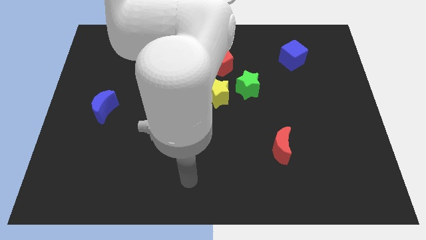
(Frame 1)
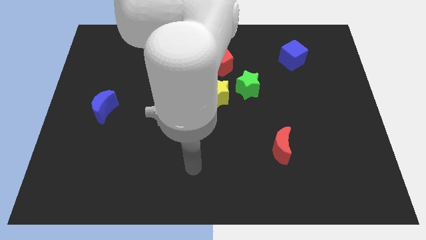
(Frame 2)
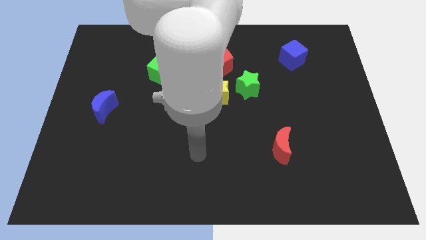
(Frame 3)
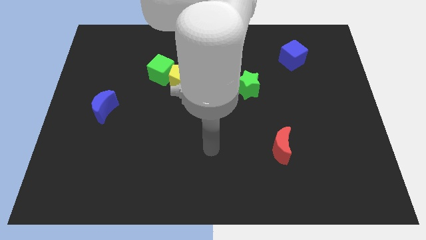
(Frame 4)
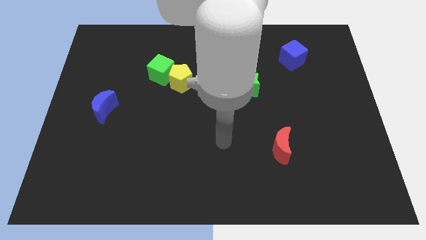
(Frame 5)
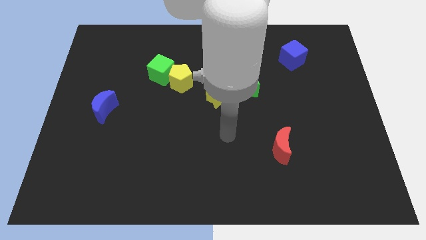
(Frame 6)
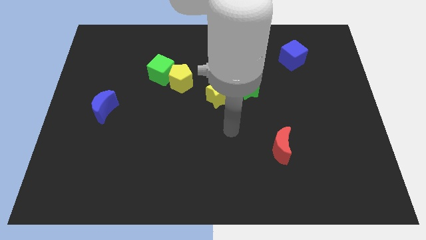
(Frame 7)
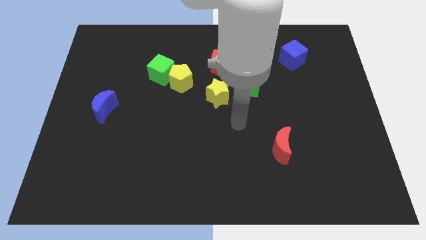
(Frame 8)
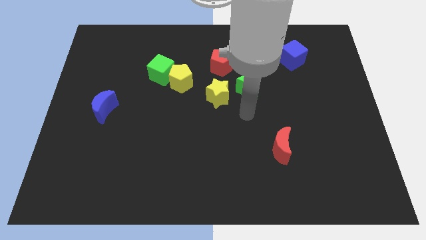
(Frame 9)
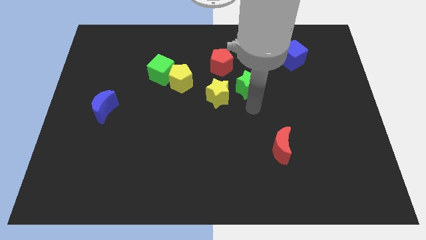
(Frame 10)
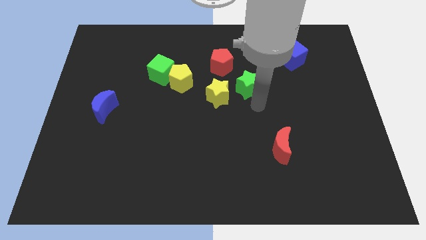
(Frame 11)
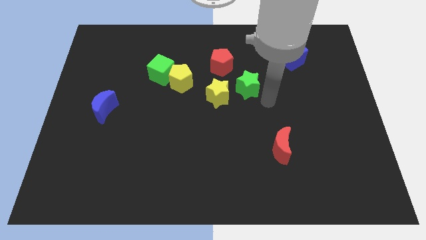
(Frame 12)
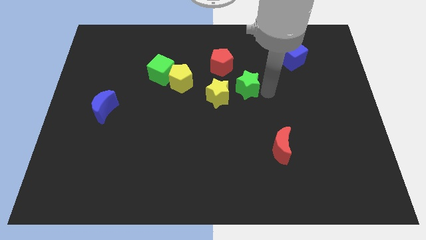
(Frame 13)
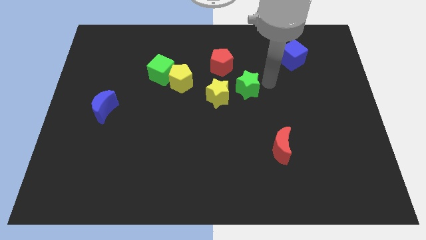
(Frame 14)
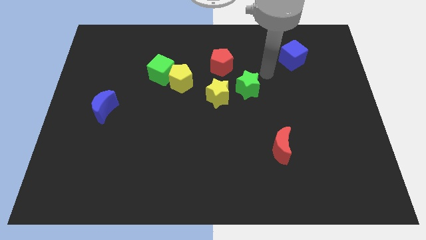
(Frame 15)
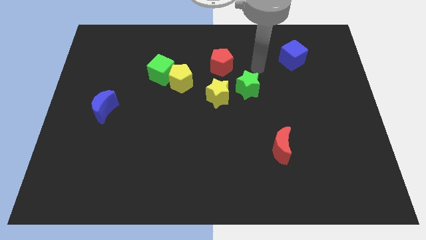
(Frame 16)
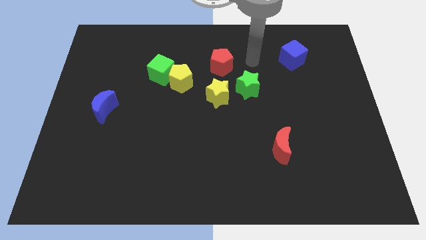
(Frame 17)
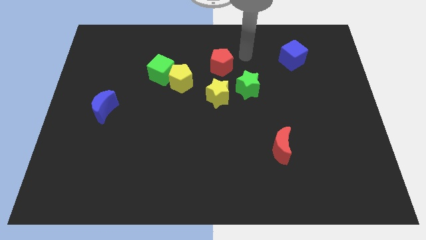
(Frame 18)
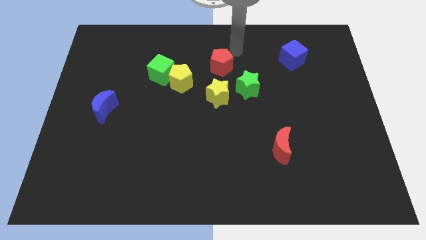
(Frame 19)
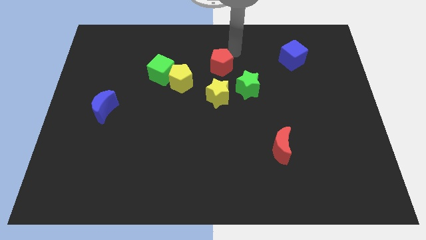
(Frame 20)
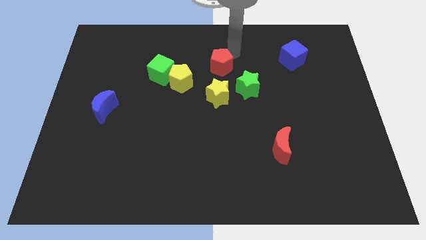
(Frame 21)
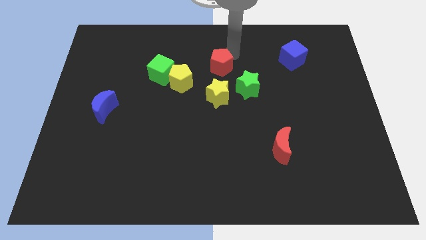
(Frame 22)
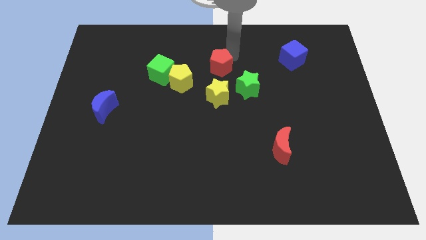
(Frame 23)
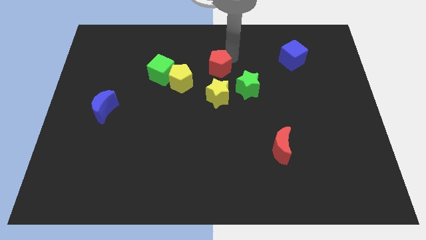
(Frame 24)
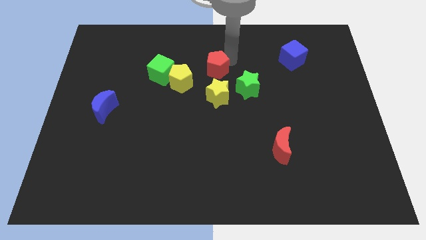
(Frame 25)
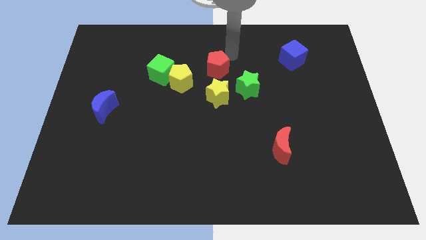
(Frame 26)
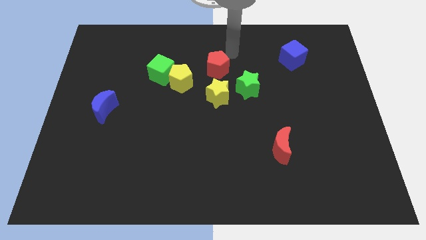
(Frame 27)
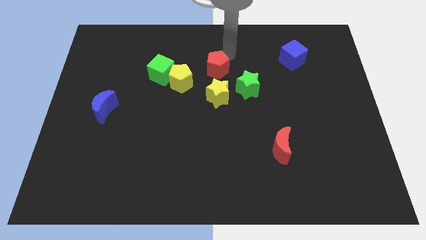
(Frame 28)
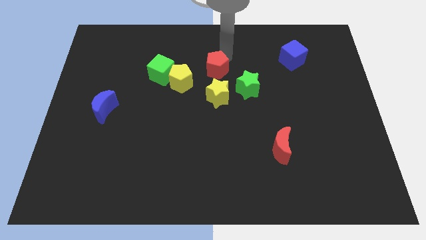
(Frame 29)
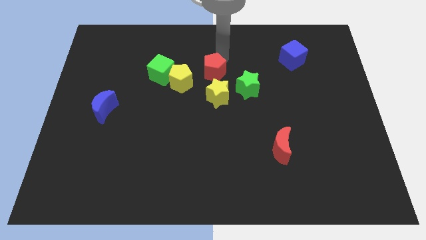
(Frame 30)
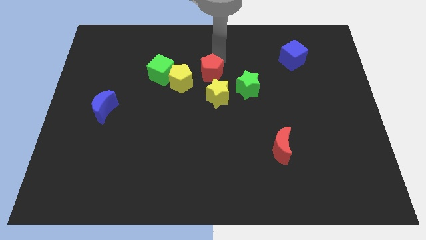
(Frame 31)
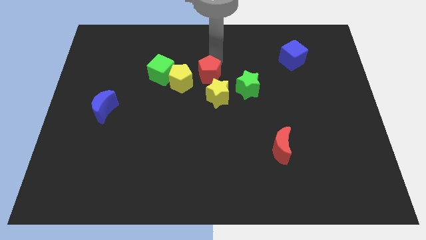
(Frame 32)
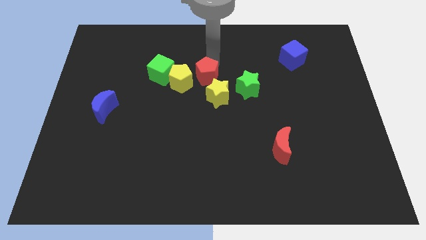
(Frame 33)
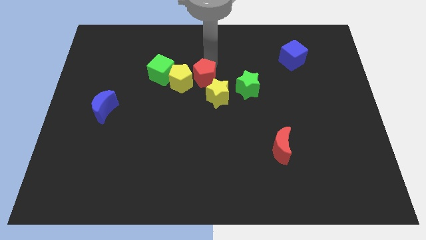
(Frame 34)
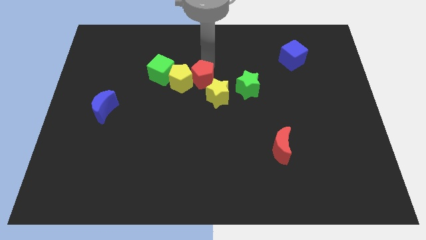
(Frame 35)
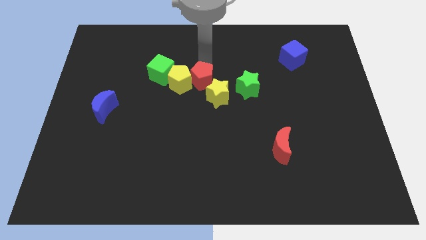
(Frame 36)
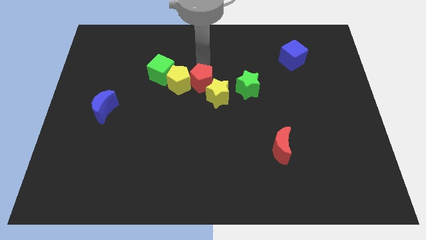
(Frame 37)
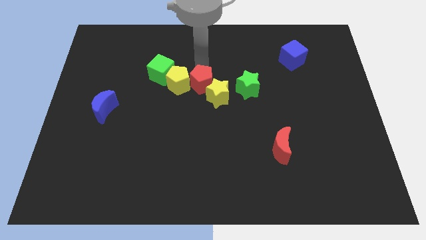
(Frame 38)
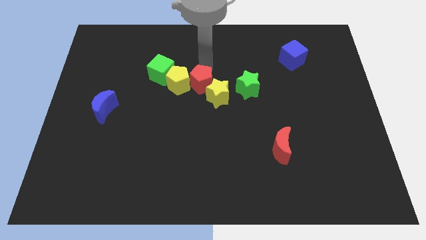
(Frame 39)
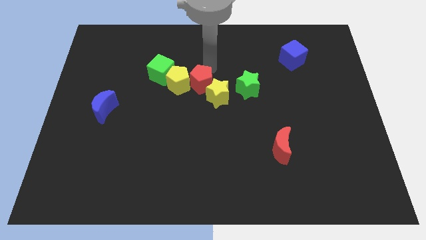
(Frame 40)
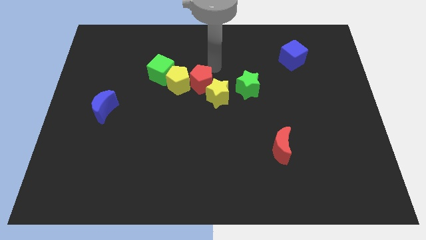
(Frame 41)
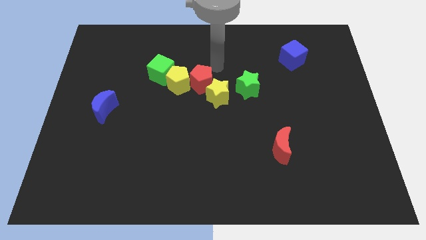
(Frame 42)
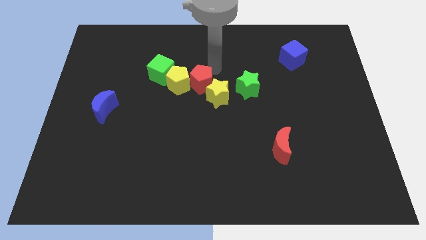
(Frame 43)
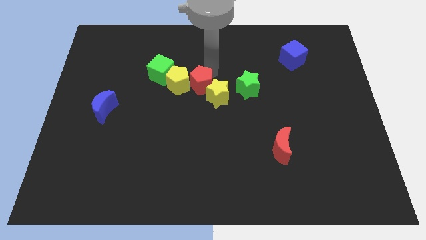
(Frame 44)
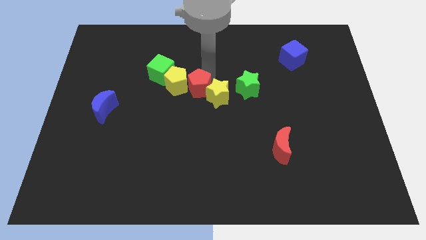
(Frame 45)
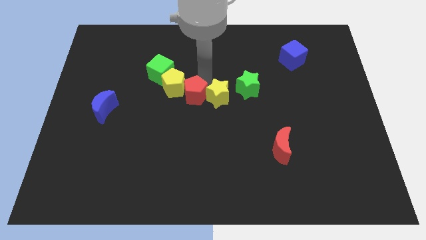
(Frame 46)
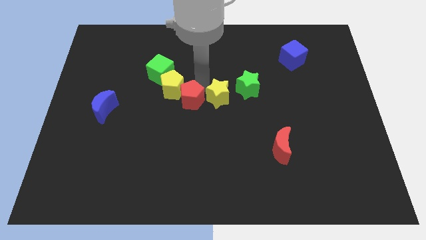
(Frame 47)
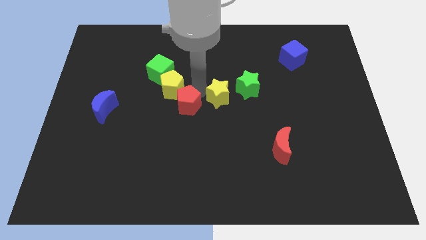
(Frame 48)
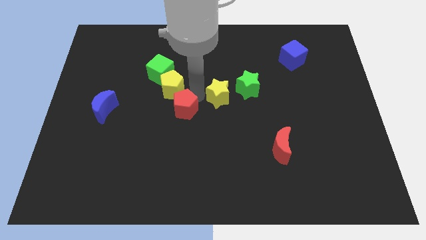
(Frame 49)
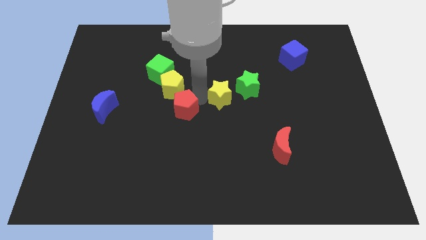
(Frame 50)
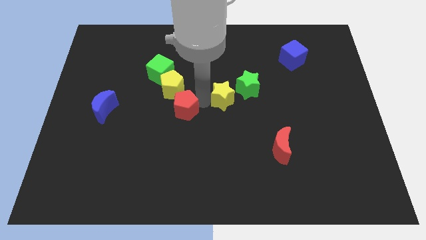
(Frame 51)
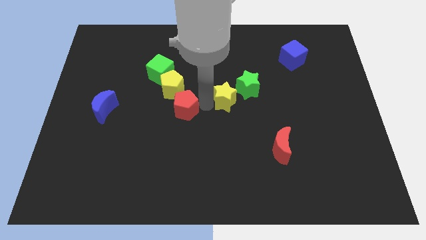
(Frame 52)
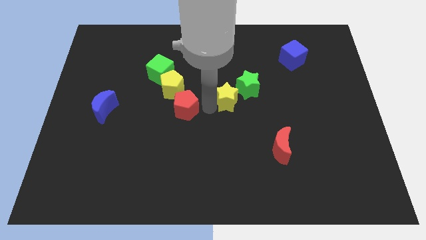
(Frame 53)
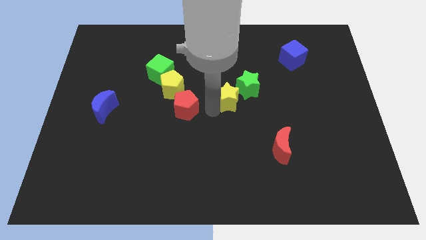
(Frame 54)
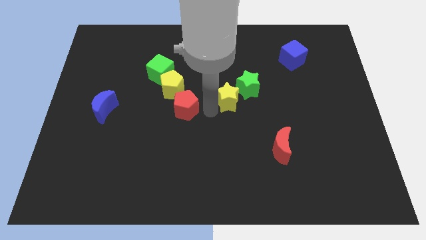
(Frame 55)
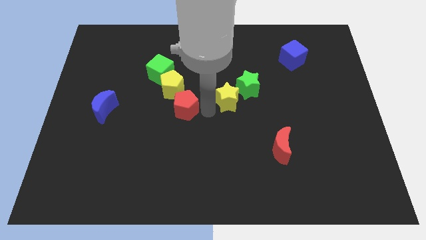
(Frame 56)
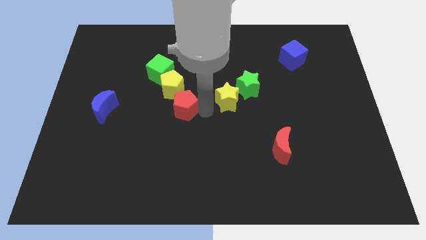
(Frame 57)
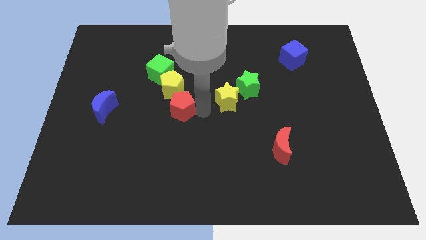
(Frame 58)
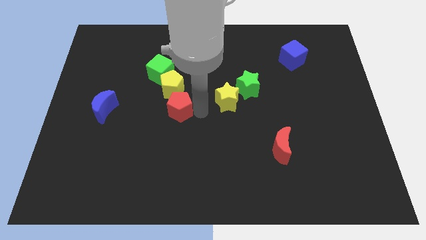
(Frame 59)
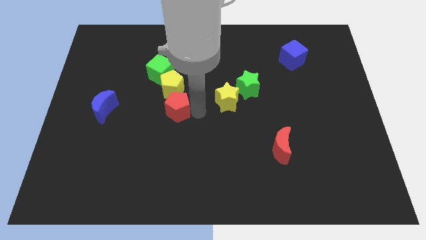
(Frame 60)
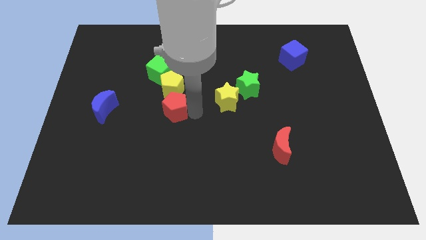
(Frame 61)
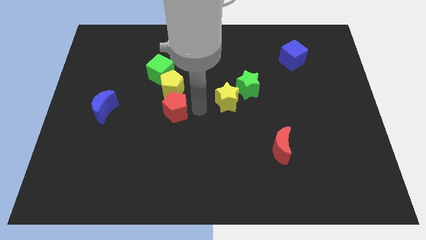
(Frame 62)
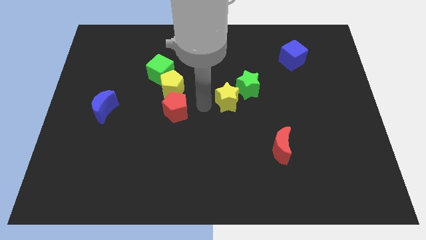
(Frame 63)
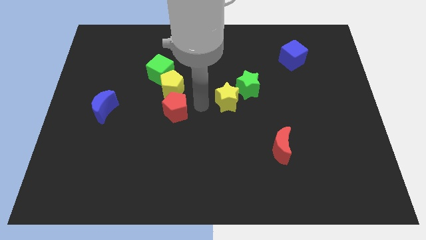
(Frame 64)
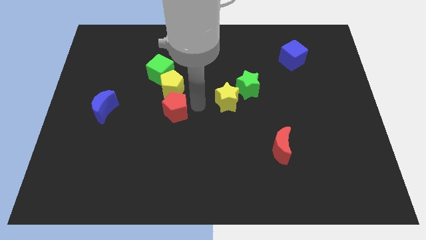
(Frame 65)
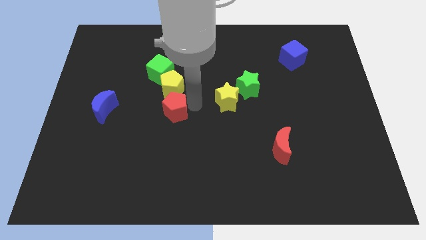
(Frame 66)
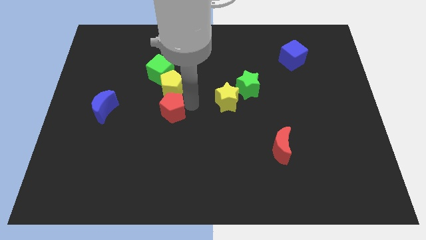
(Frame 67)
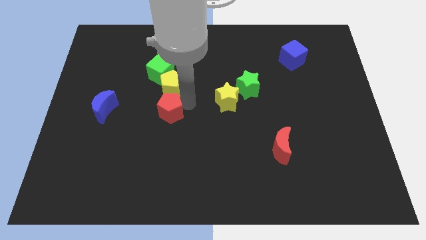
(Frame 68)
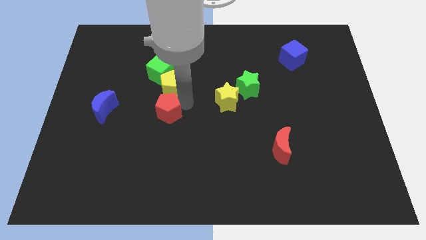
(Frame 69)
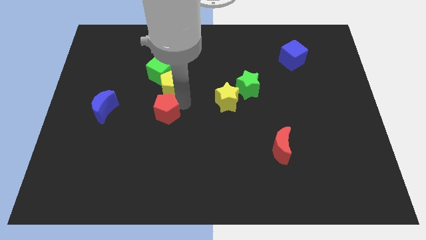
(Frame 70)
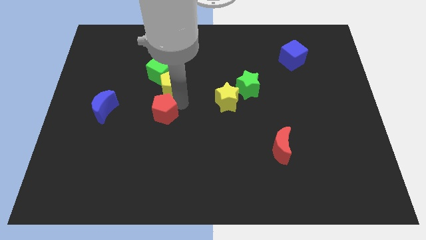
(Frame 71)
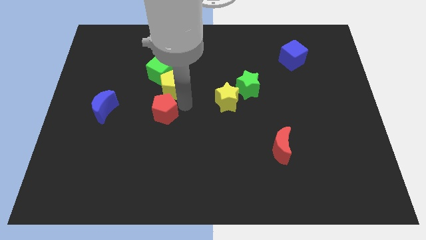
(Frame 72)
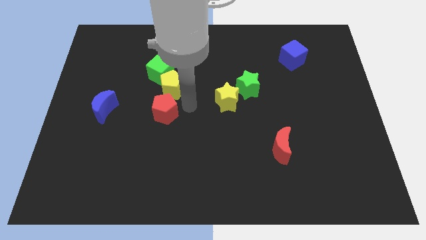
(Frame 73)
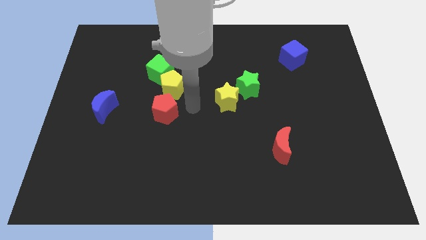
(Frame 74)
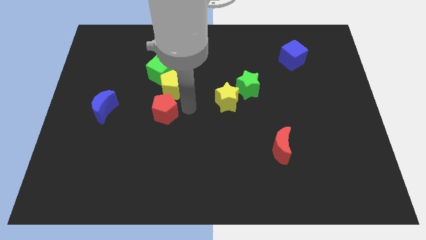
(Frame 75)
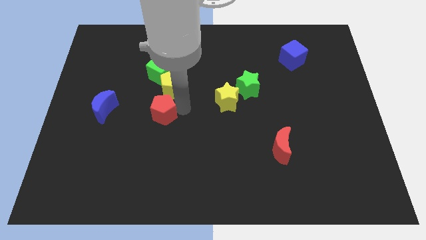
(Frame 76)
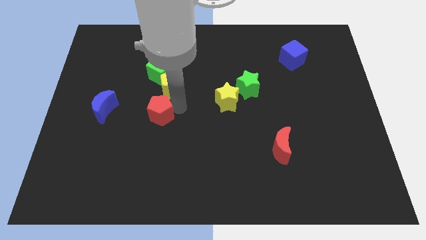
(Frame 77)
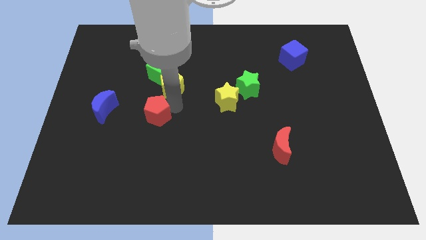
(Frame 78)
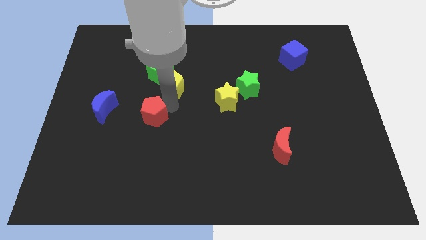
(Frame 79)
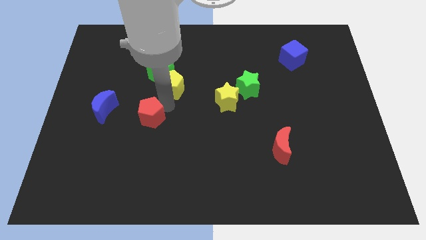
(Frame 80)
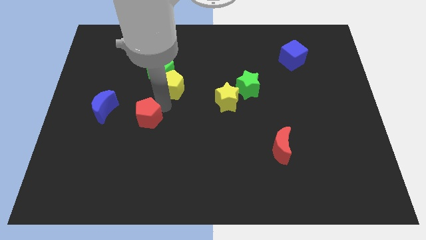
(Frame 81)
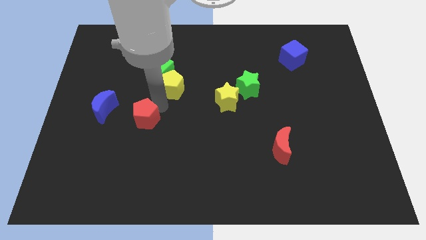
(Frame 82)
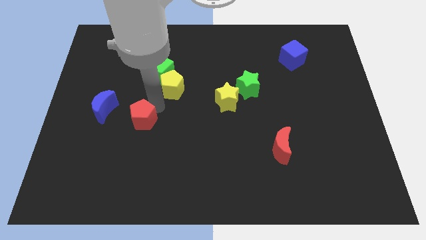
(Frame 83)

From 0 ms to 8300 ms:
slide the red pentagon to the bottom right side of the blue moon
